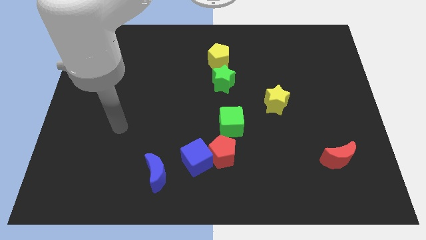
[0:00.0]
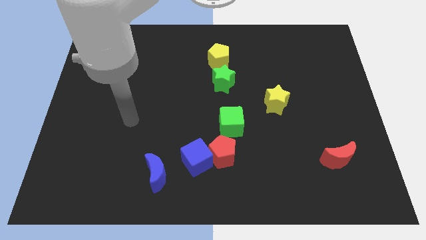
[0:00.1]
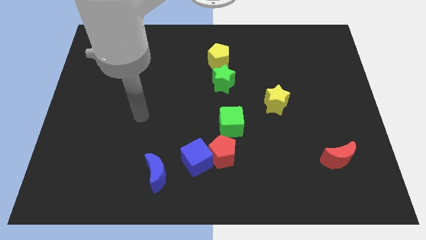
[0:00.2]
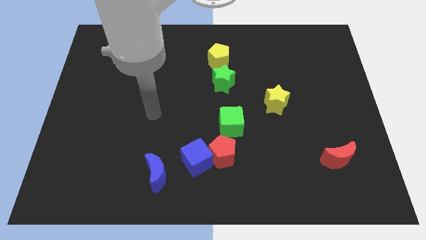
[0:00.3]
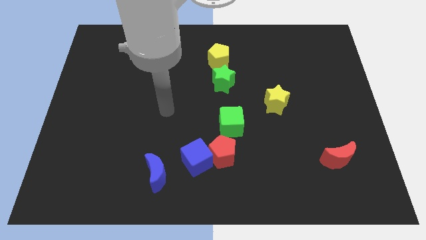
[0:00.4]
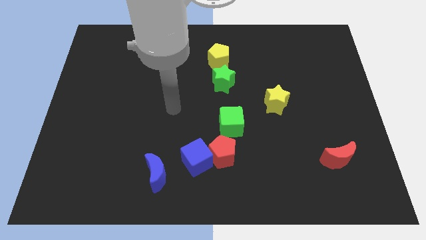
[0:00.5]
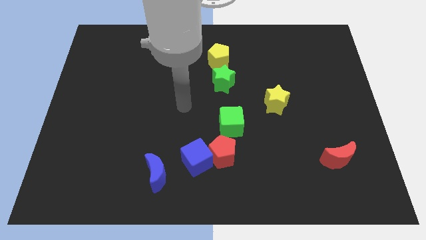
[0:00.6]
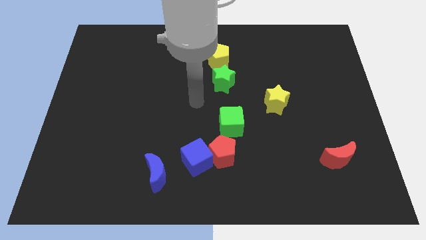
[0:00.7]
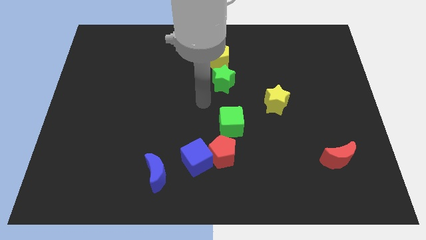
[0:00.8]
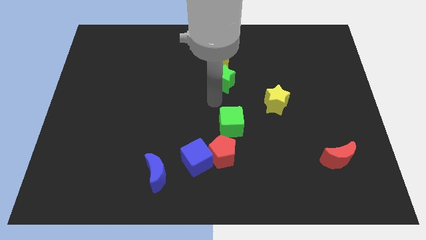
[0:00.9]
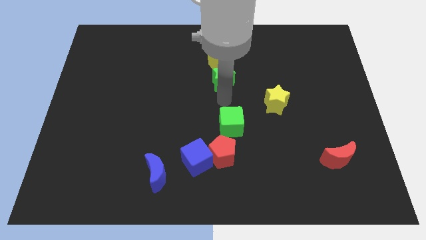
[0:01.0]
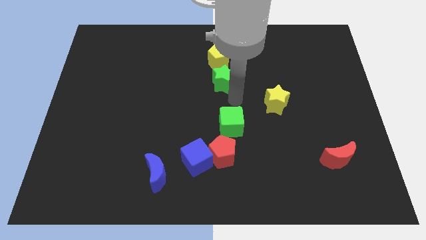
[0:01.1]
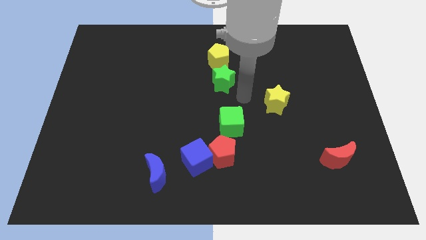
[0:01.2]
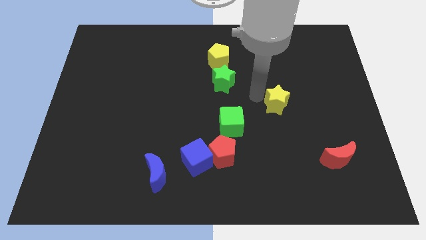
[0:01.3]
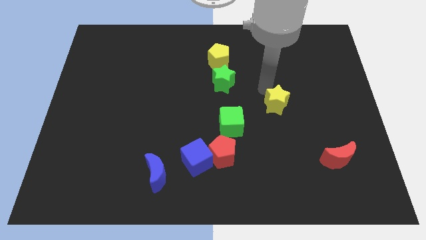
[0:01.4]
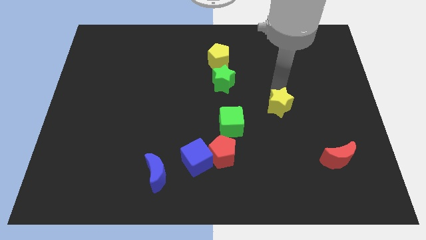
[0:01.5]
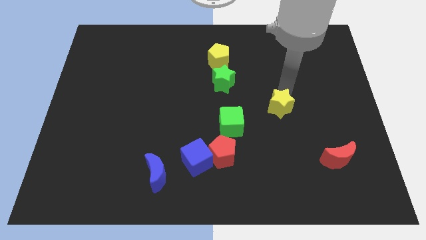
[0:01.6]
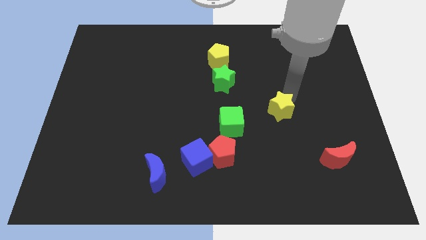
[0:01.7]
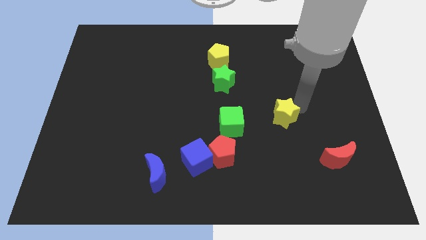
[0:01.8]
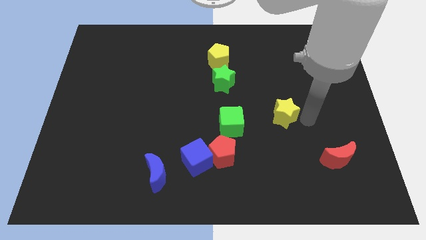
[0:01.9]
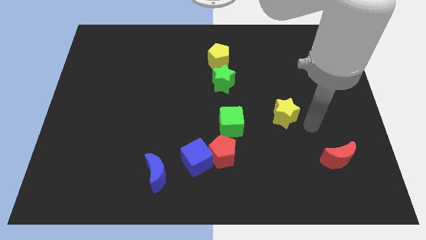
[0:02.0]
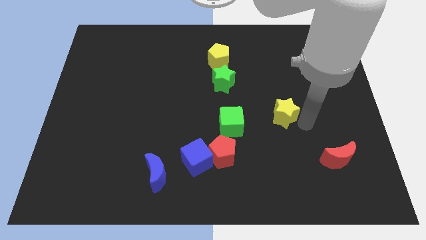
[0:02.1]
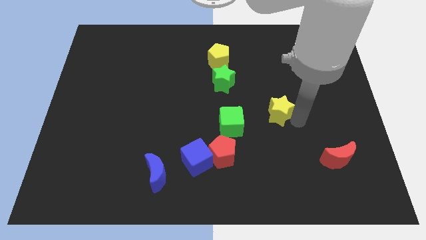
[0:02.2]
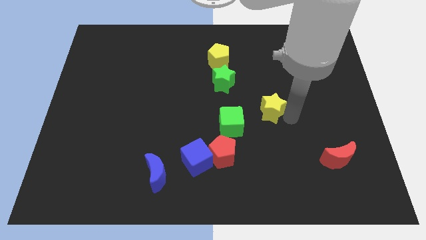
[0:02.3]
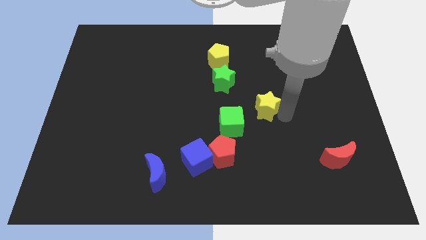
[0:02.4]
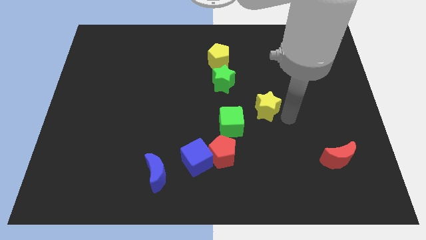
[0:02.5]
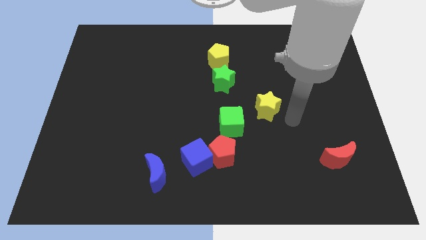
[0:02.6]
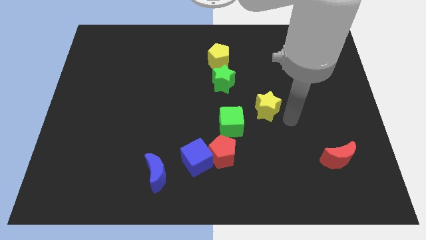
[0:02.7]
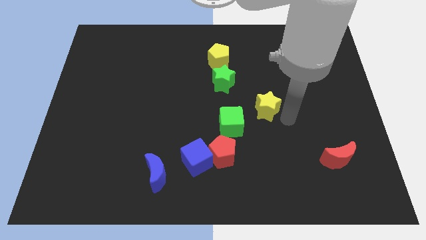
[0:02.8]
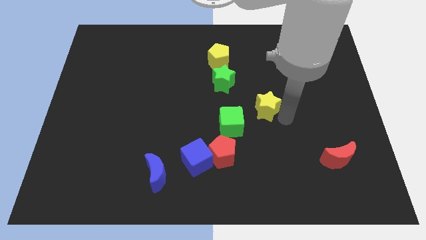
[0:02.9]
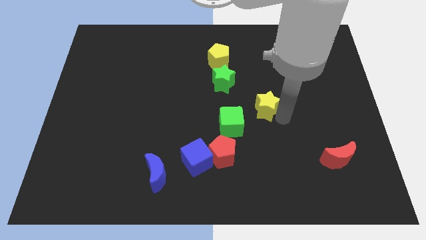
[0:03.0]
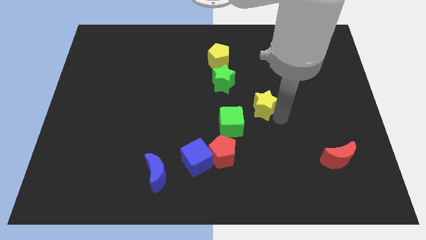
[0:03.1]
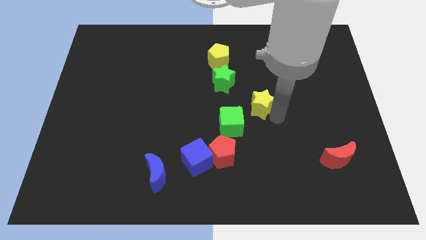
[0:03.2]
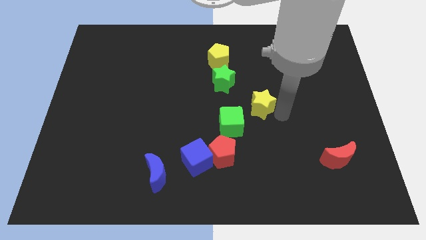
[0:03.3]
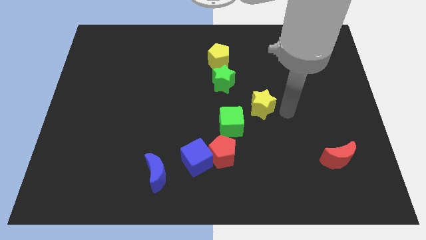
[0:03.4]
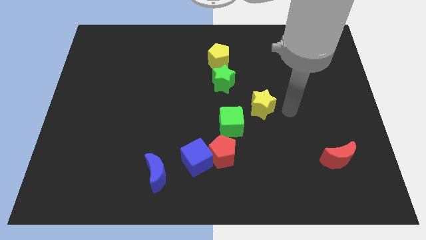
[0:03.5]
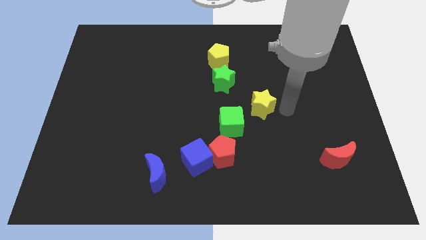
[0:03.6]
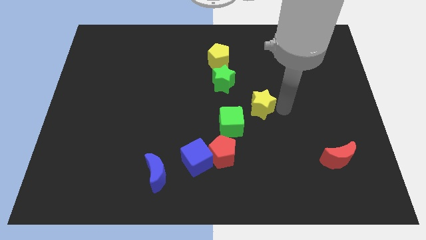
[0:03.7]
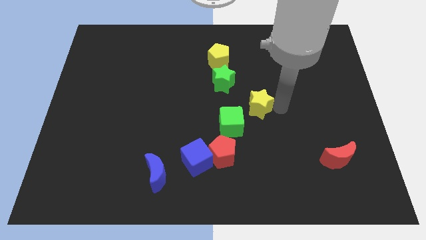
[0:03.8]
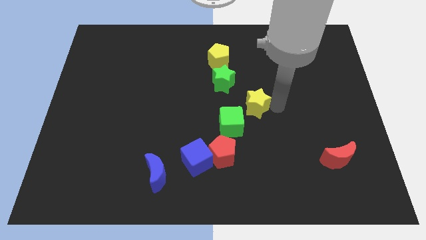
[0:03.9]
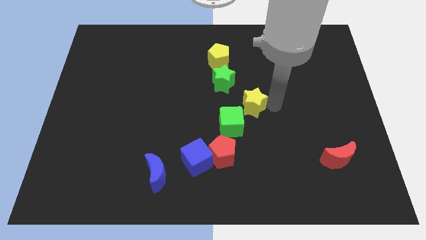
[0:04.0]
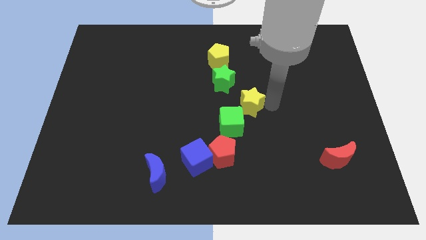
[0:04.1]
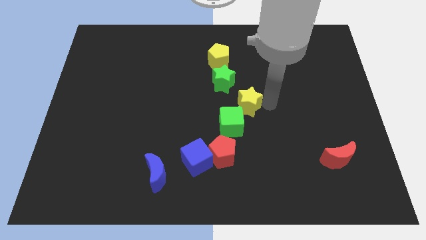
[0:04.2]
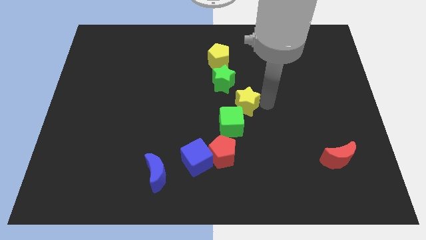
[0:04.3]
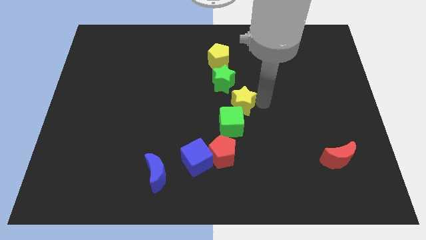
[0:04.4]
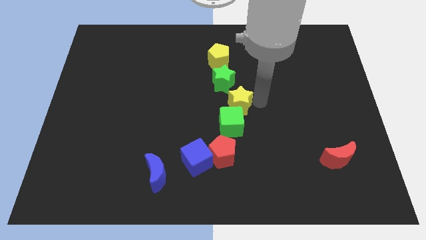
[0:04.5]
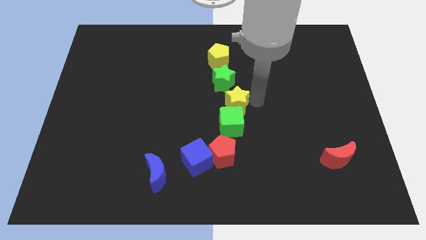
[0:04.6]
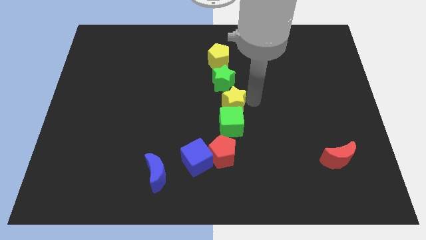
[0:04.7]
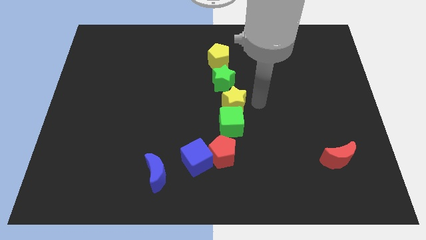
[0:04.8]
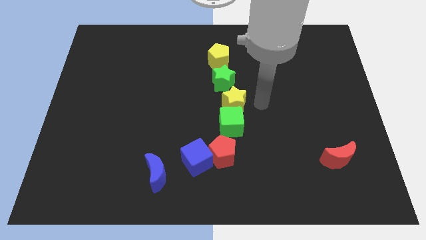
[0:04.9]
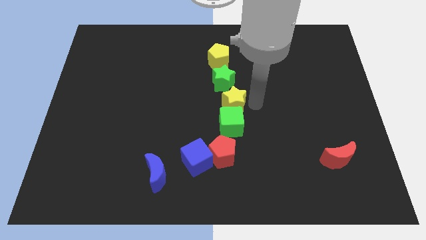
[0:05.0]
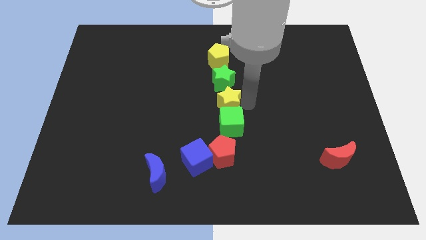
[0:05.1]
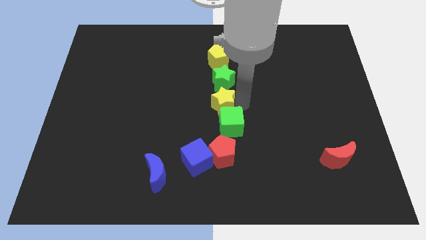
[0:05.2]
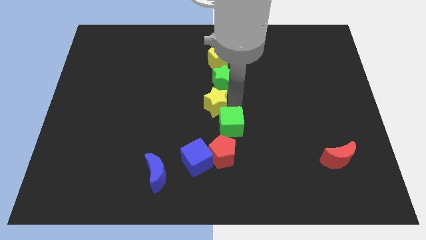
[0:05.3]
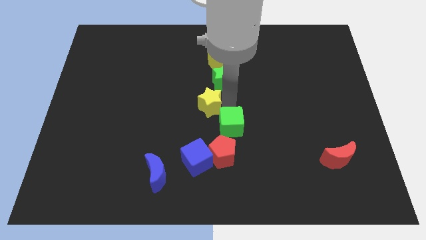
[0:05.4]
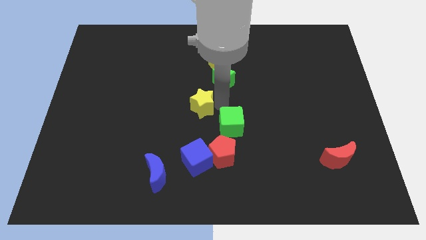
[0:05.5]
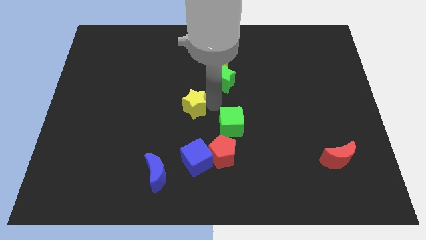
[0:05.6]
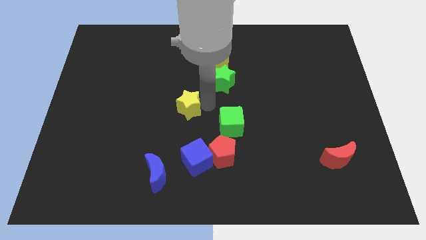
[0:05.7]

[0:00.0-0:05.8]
slide the yellow star to the left

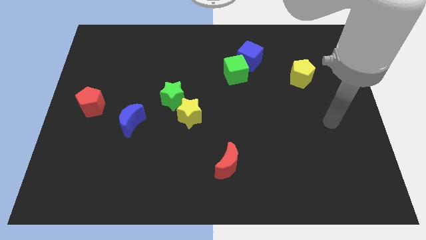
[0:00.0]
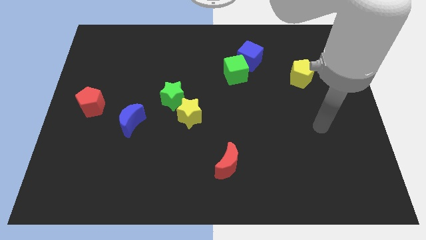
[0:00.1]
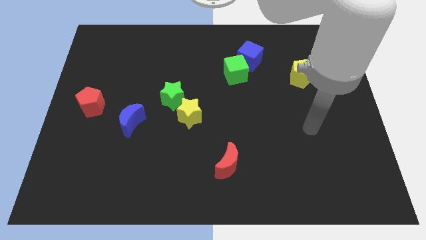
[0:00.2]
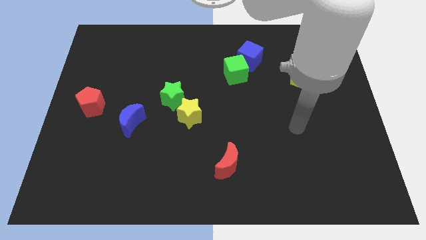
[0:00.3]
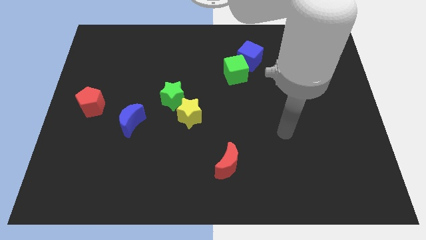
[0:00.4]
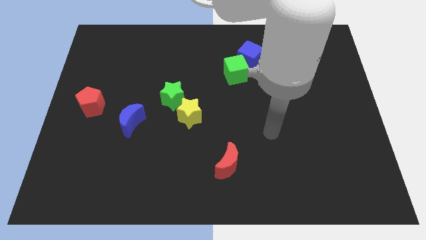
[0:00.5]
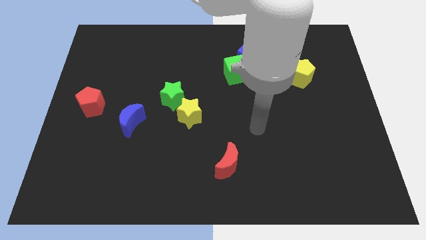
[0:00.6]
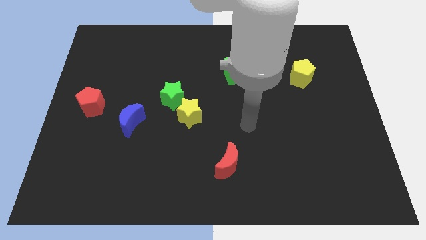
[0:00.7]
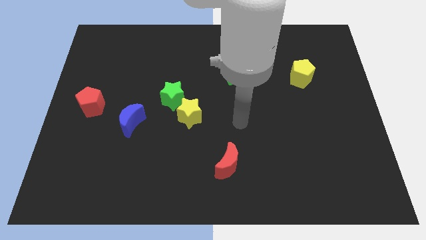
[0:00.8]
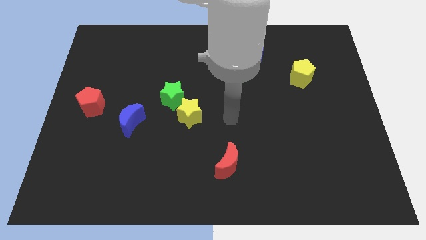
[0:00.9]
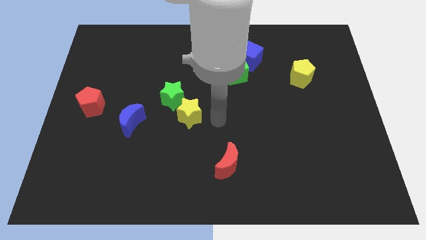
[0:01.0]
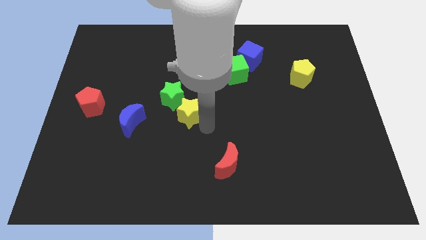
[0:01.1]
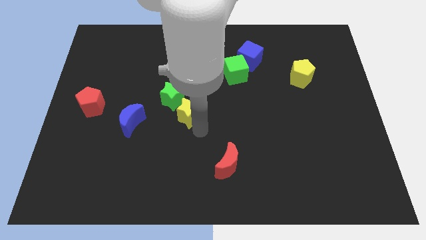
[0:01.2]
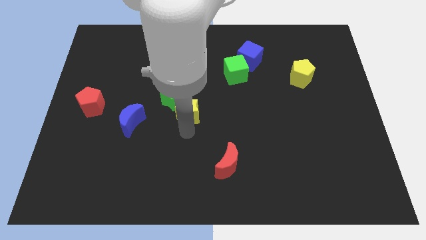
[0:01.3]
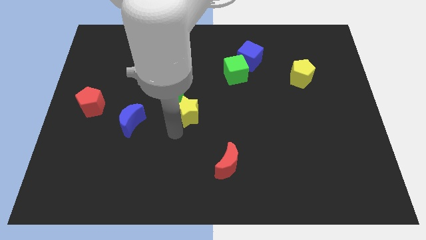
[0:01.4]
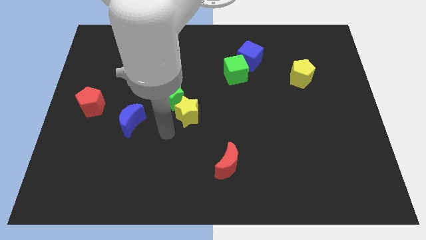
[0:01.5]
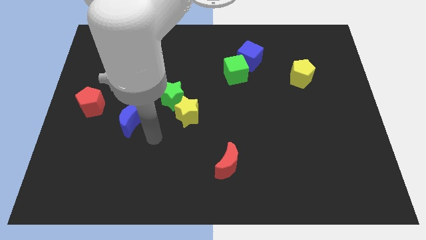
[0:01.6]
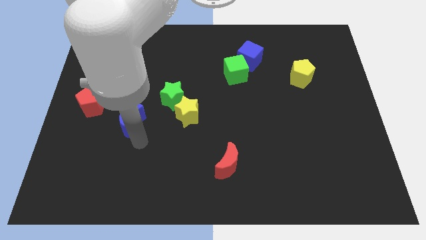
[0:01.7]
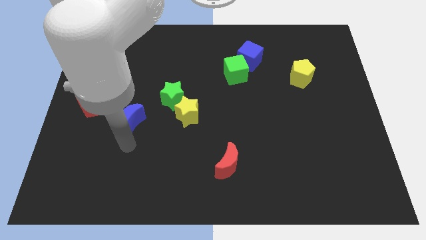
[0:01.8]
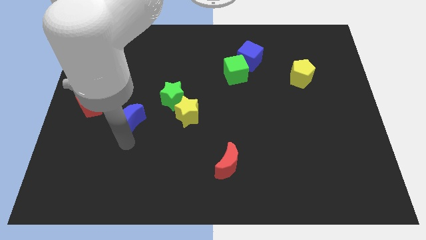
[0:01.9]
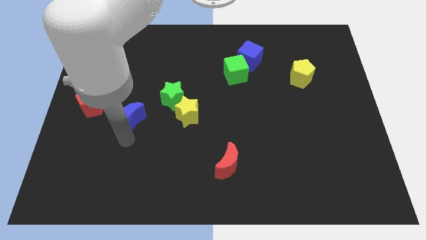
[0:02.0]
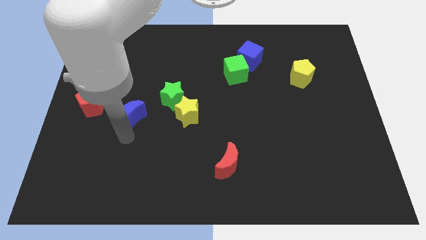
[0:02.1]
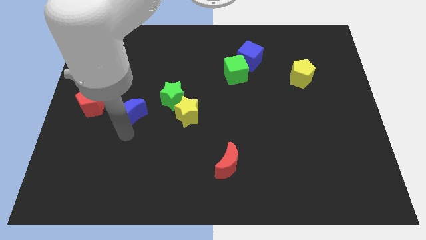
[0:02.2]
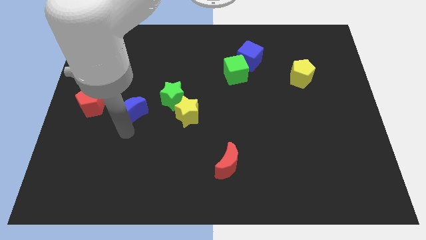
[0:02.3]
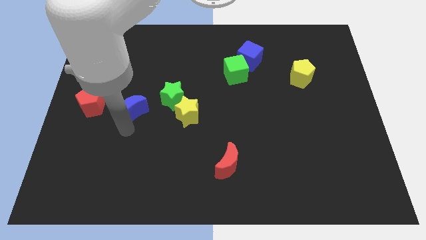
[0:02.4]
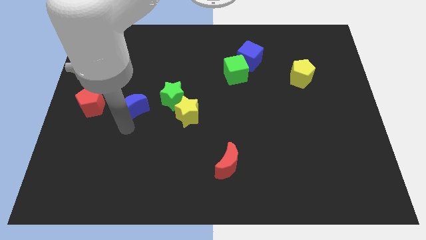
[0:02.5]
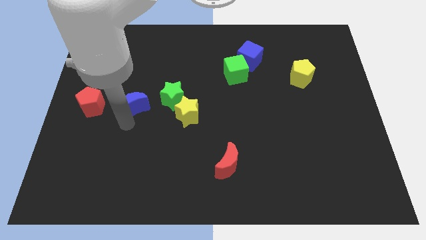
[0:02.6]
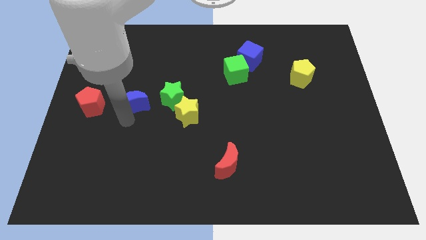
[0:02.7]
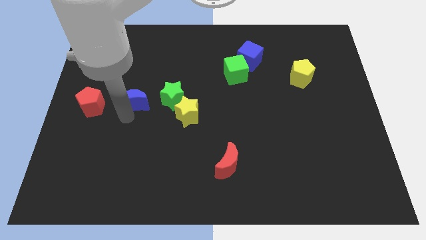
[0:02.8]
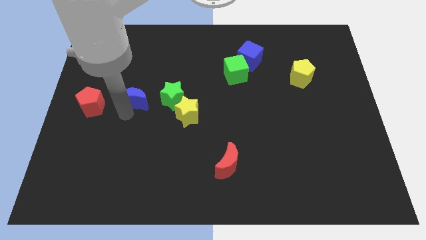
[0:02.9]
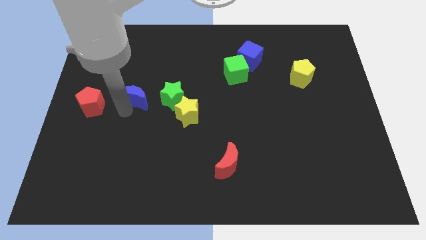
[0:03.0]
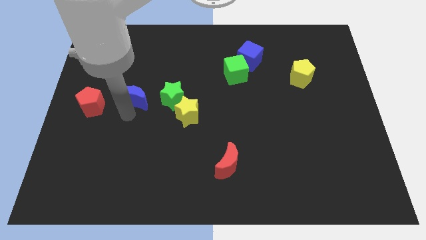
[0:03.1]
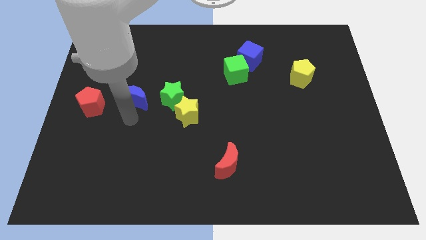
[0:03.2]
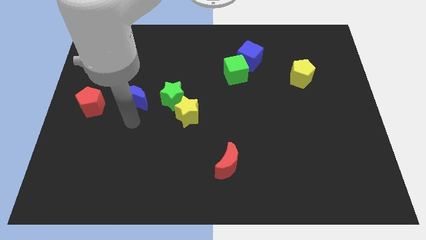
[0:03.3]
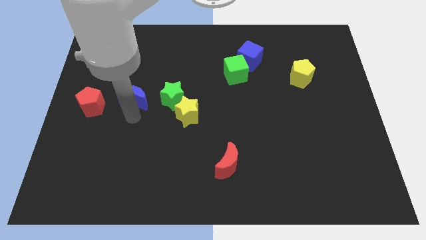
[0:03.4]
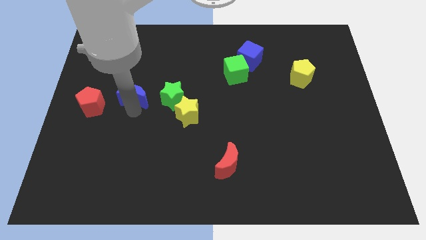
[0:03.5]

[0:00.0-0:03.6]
slightly slide the blue moon upwards
